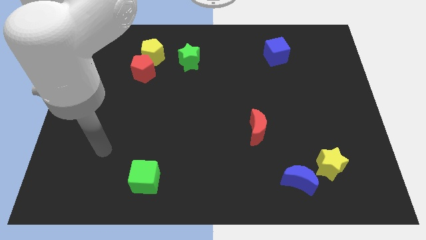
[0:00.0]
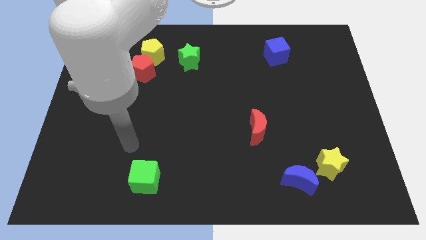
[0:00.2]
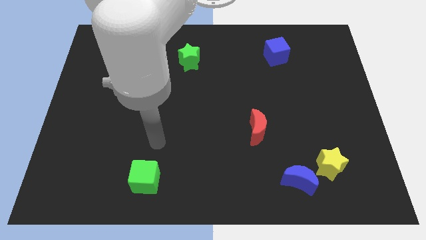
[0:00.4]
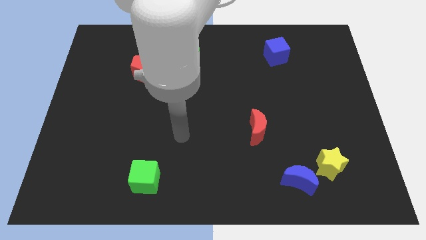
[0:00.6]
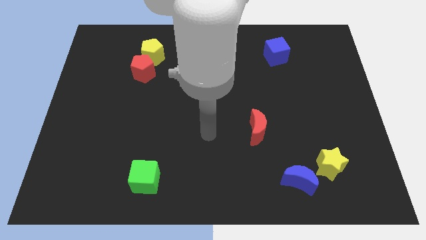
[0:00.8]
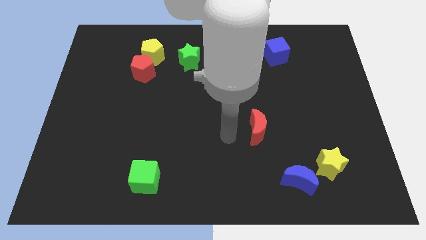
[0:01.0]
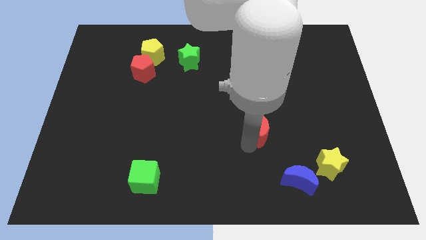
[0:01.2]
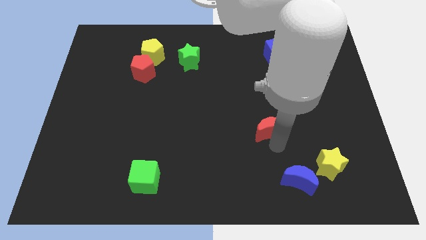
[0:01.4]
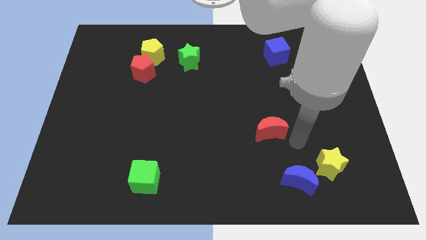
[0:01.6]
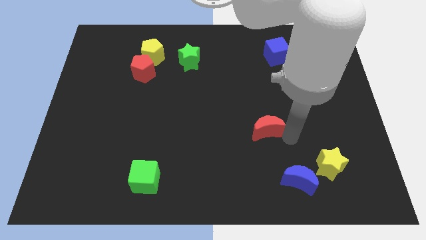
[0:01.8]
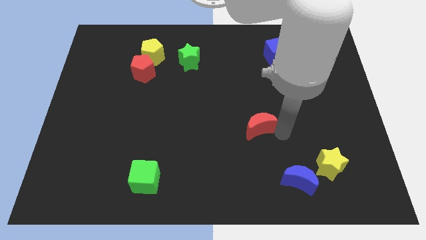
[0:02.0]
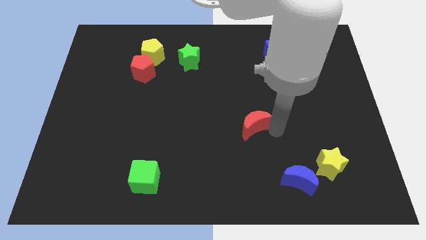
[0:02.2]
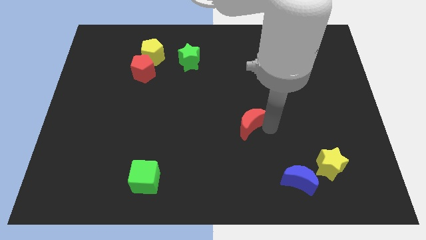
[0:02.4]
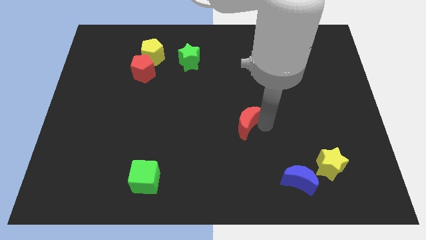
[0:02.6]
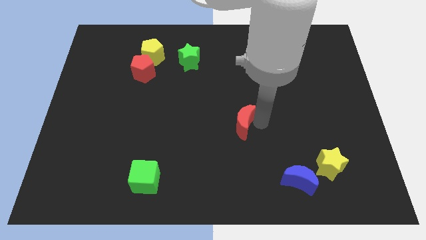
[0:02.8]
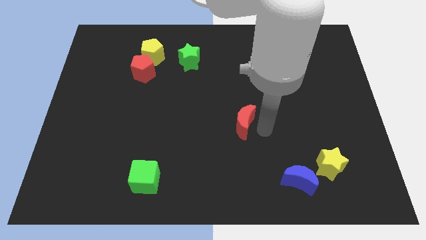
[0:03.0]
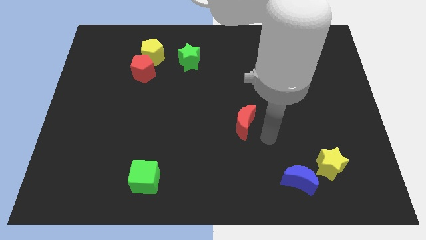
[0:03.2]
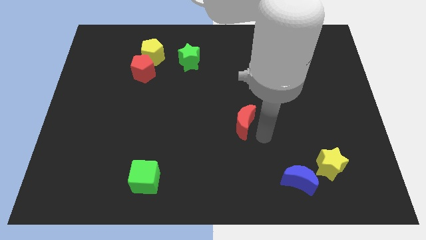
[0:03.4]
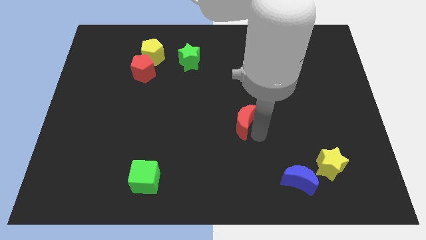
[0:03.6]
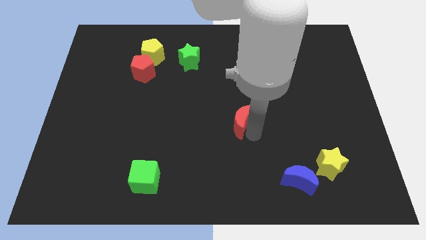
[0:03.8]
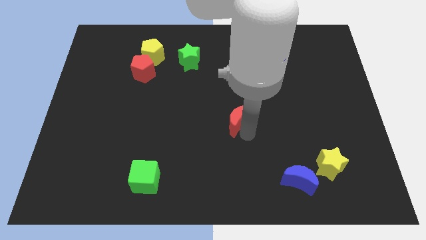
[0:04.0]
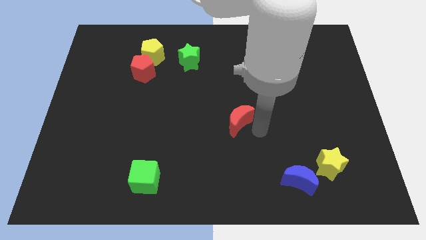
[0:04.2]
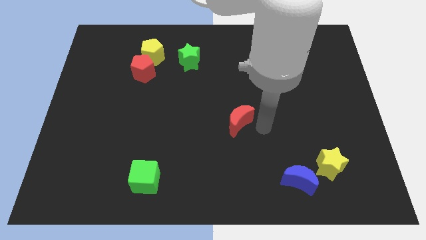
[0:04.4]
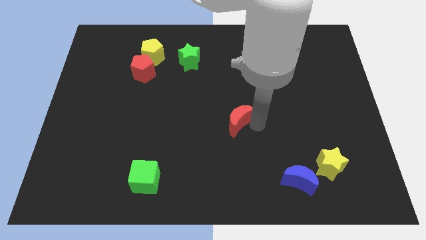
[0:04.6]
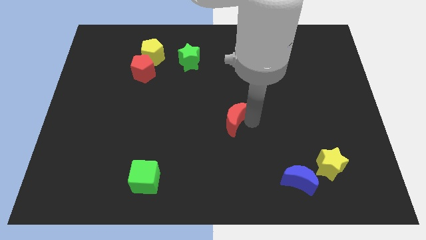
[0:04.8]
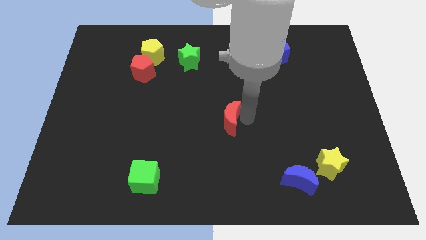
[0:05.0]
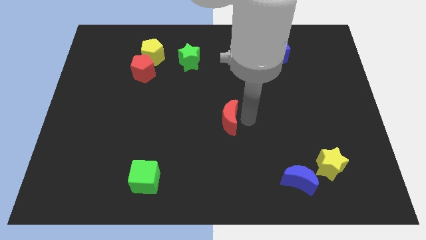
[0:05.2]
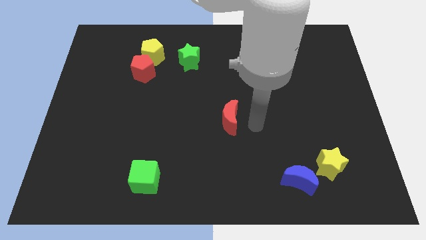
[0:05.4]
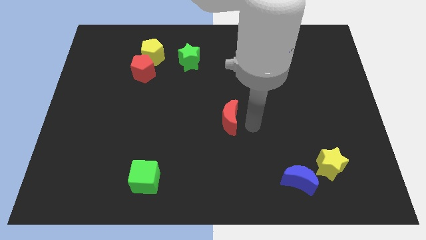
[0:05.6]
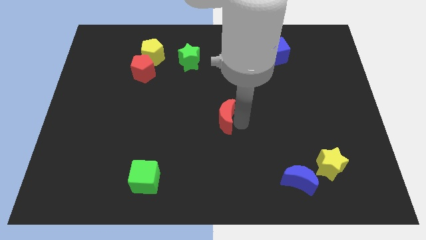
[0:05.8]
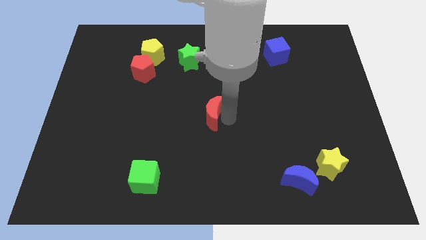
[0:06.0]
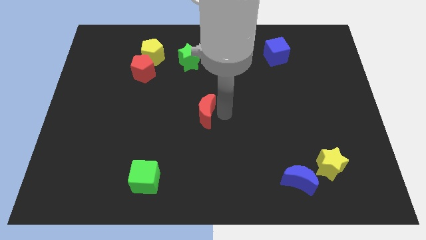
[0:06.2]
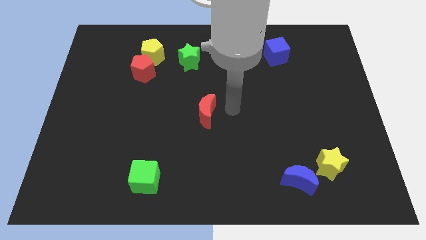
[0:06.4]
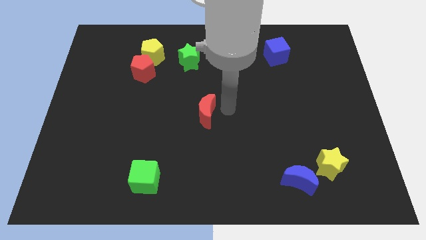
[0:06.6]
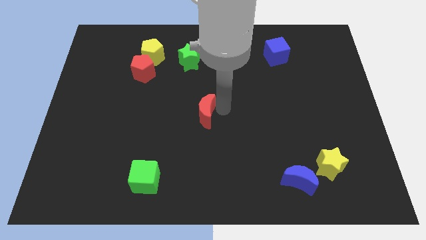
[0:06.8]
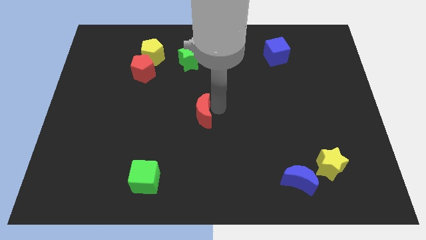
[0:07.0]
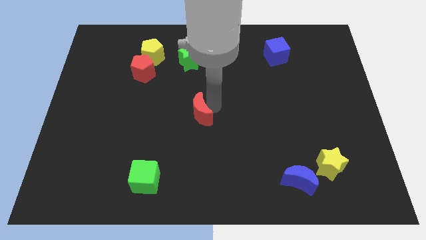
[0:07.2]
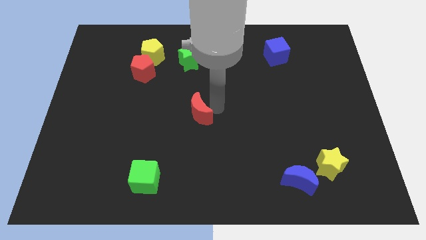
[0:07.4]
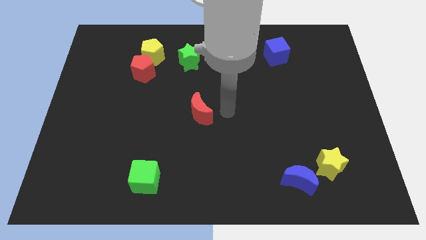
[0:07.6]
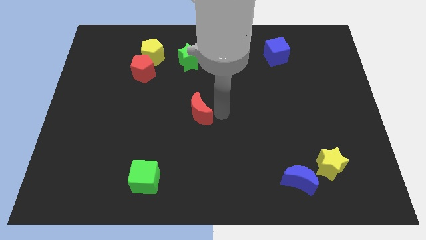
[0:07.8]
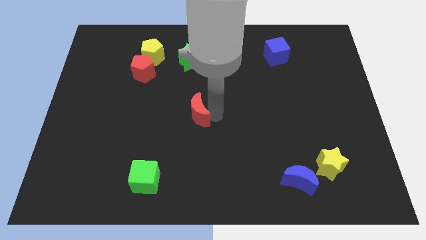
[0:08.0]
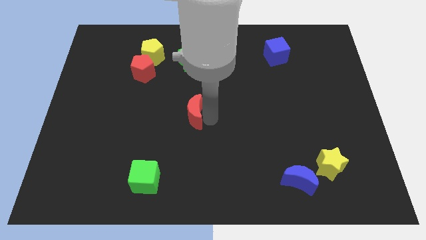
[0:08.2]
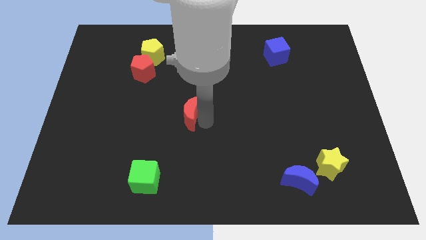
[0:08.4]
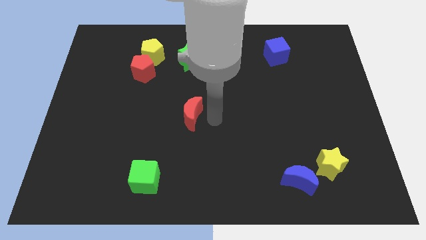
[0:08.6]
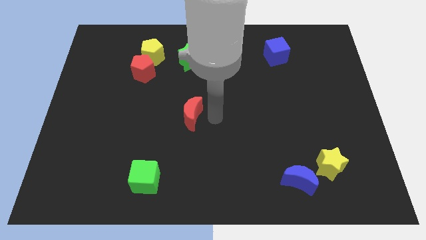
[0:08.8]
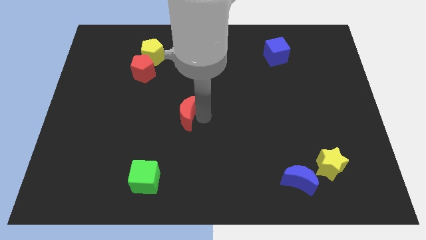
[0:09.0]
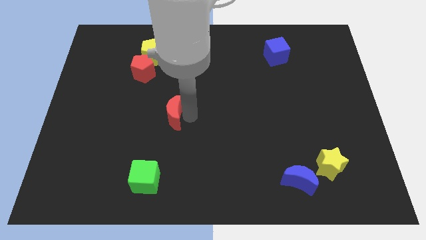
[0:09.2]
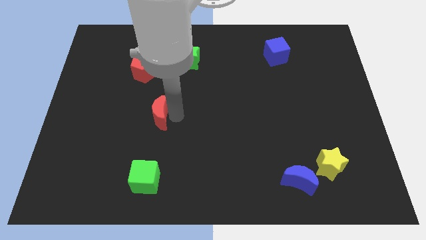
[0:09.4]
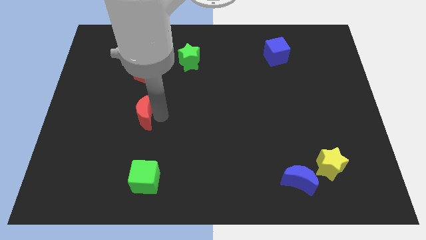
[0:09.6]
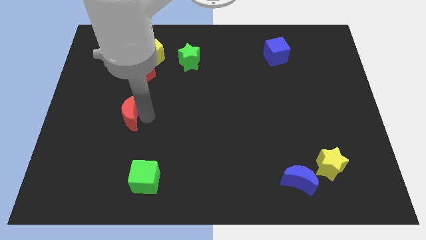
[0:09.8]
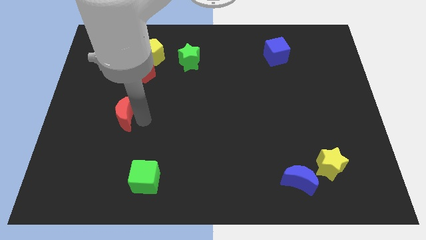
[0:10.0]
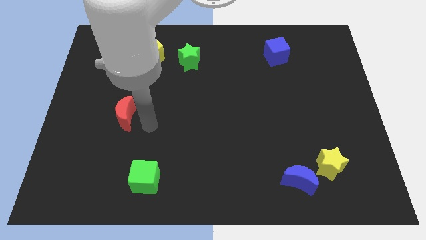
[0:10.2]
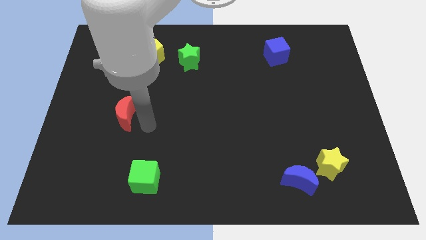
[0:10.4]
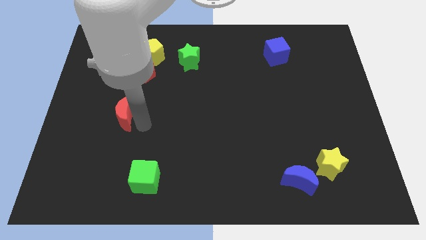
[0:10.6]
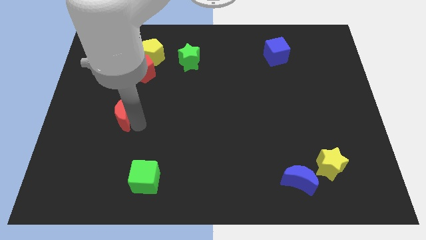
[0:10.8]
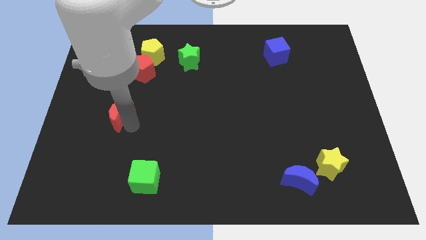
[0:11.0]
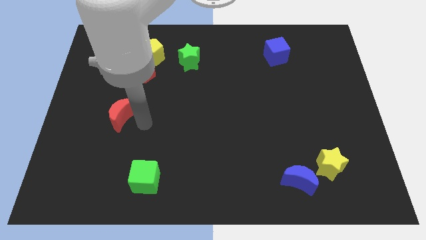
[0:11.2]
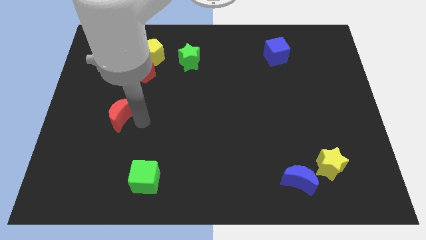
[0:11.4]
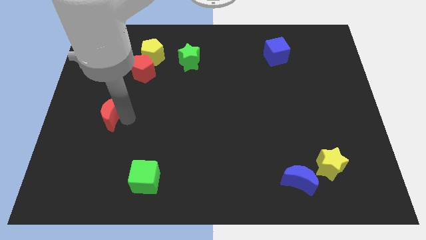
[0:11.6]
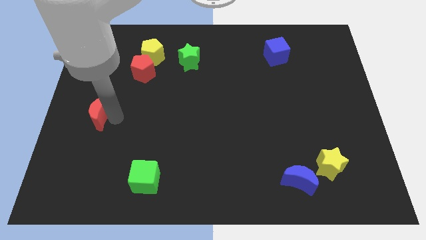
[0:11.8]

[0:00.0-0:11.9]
move the red moon to the left side of the board

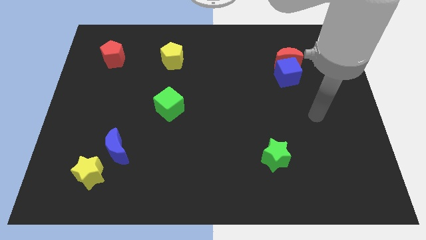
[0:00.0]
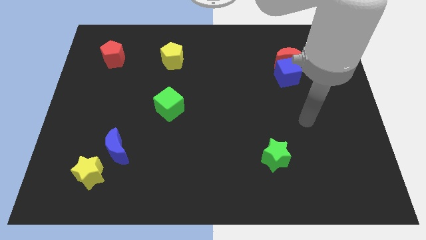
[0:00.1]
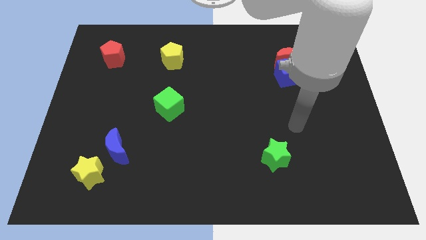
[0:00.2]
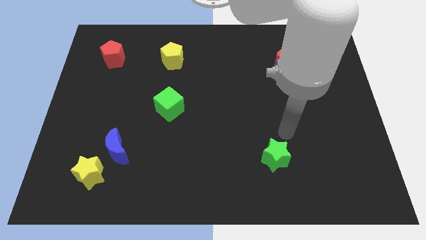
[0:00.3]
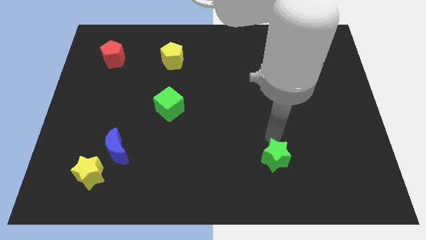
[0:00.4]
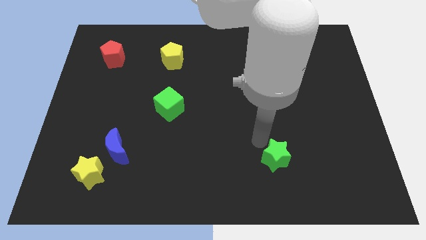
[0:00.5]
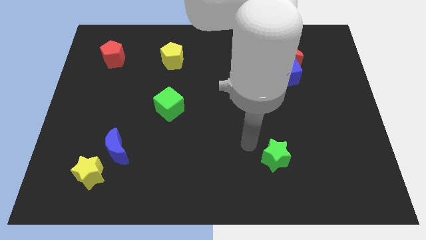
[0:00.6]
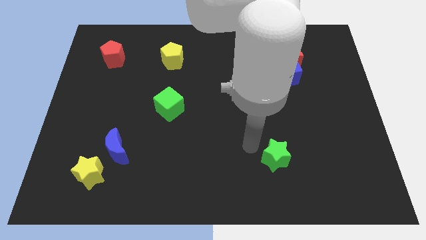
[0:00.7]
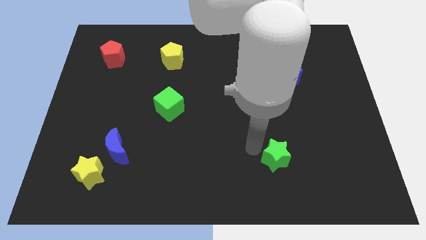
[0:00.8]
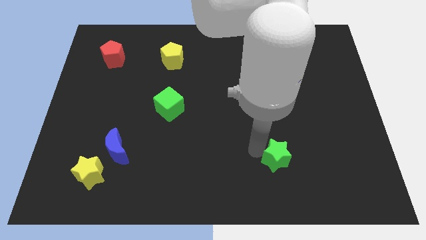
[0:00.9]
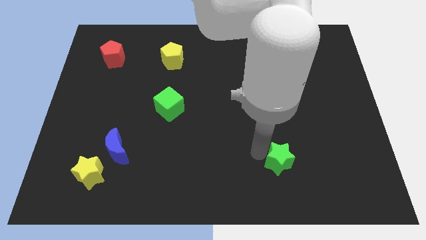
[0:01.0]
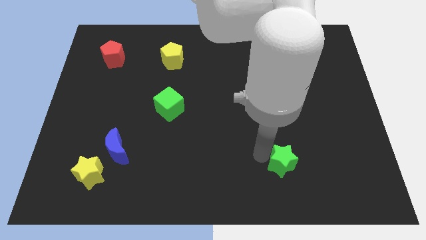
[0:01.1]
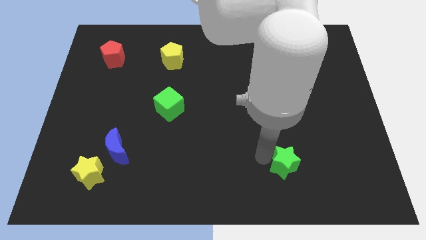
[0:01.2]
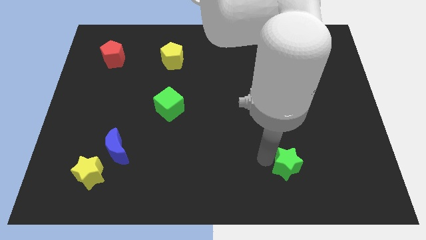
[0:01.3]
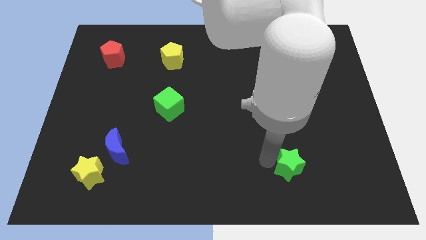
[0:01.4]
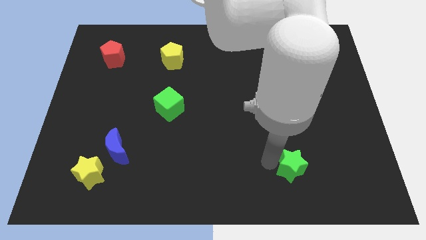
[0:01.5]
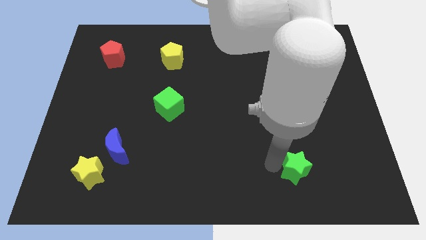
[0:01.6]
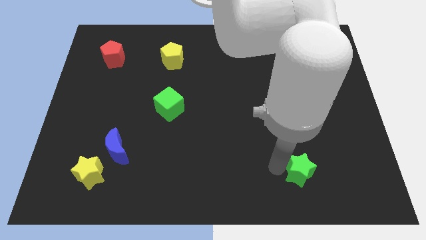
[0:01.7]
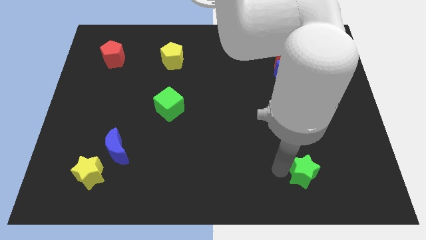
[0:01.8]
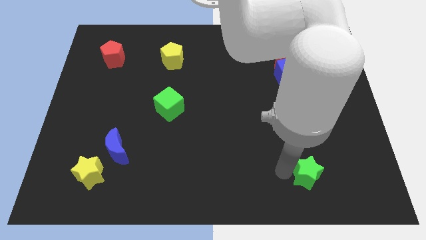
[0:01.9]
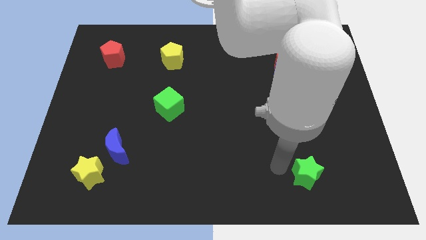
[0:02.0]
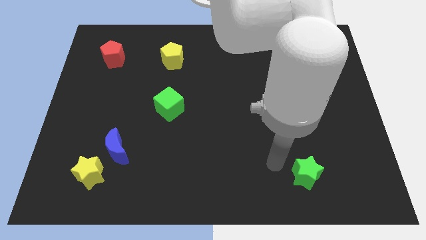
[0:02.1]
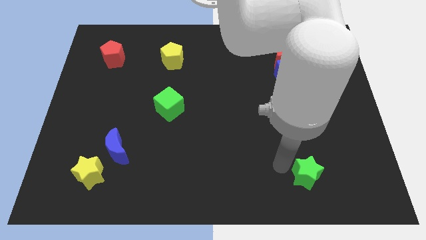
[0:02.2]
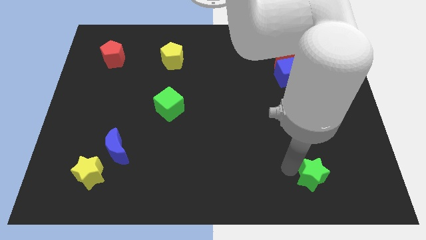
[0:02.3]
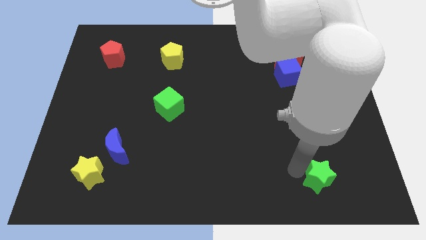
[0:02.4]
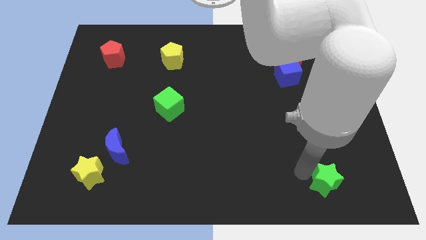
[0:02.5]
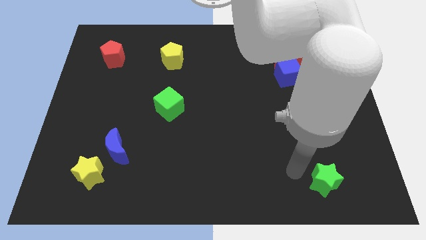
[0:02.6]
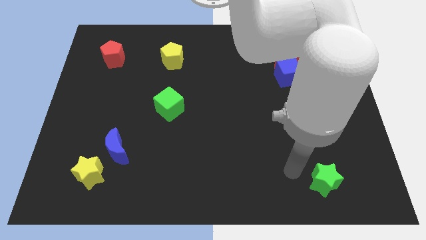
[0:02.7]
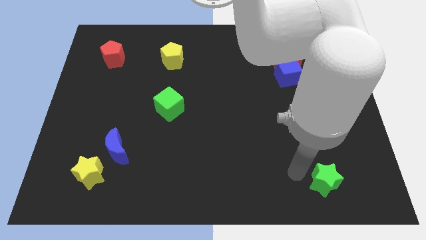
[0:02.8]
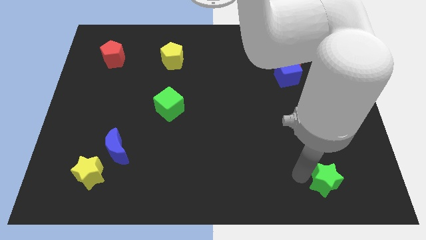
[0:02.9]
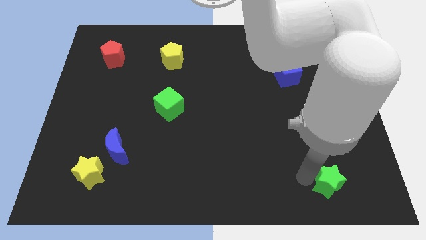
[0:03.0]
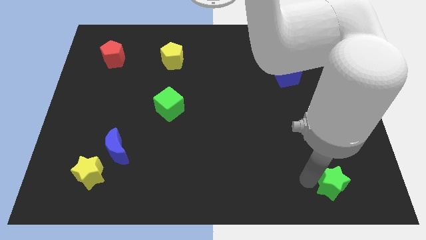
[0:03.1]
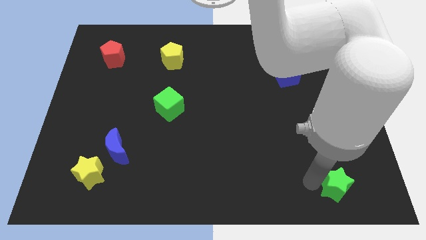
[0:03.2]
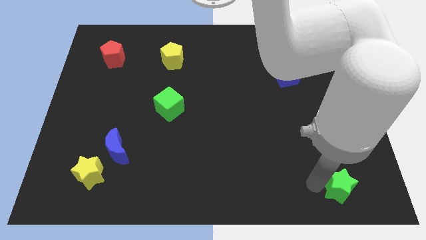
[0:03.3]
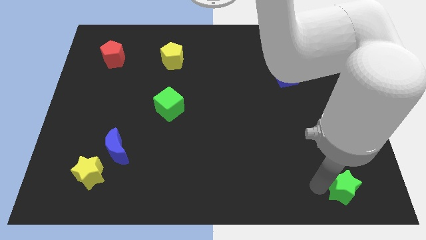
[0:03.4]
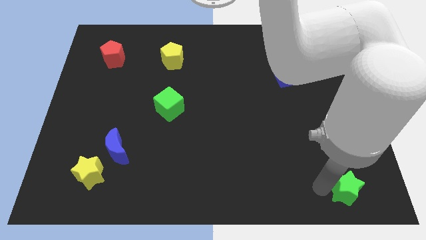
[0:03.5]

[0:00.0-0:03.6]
move the green star to the lower right corner
